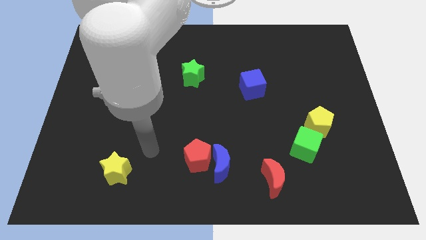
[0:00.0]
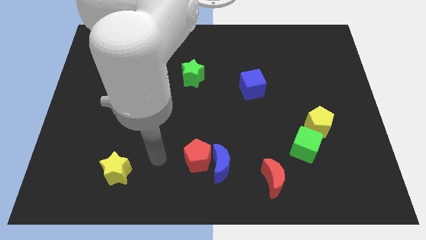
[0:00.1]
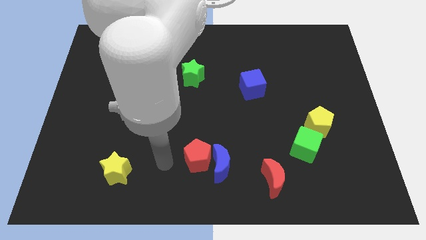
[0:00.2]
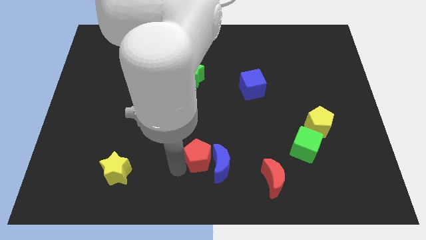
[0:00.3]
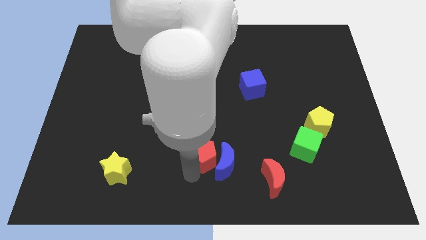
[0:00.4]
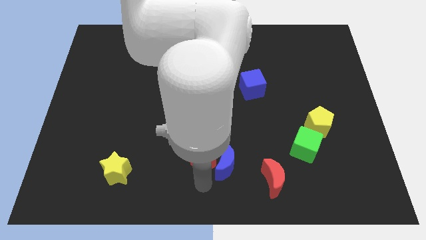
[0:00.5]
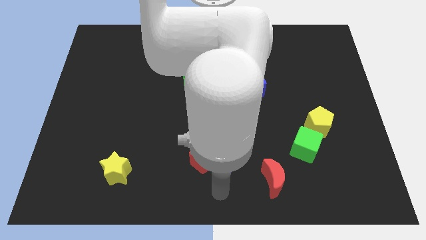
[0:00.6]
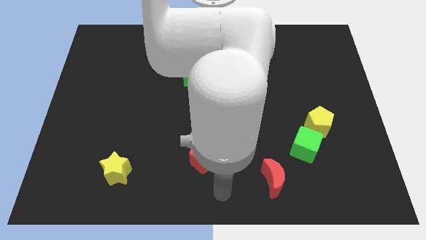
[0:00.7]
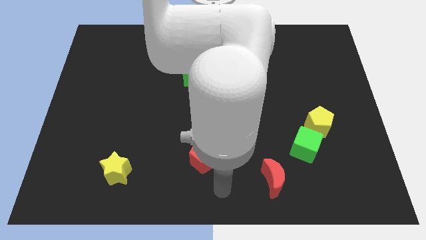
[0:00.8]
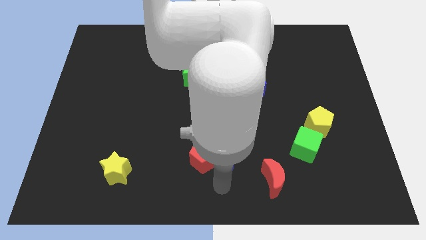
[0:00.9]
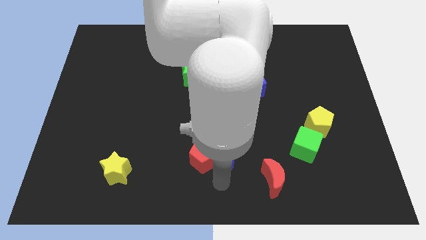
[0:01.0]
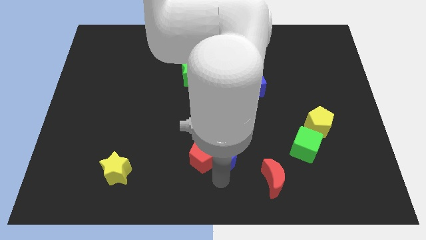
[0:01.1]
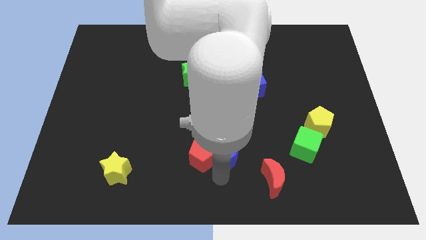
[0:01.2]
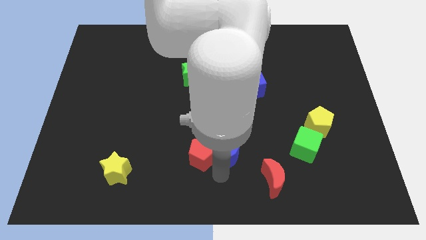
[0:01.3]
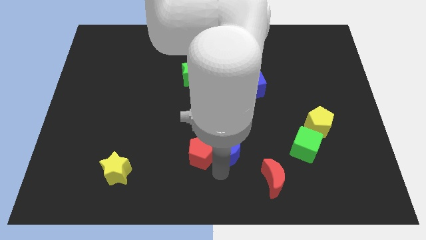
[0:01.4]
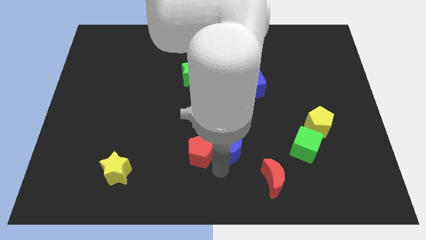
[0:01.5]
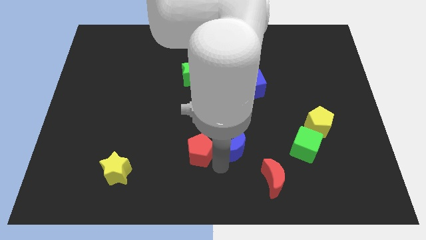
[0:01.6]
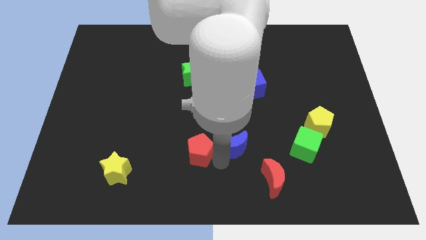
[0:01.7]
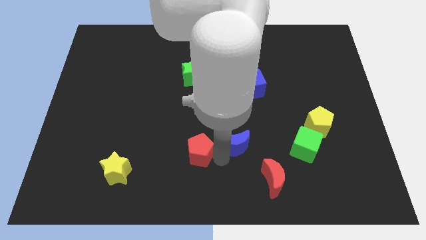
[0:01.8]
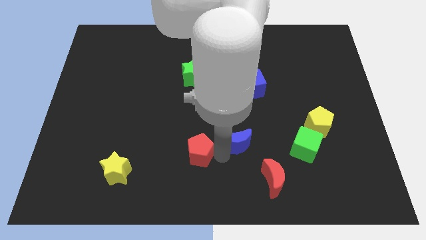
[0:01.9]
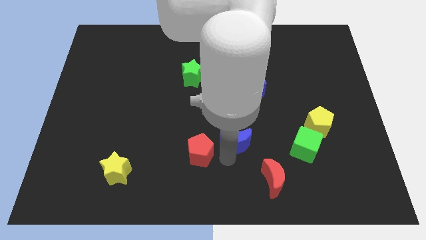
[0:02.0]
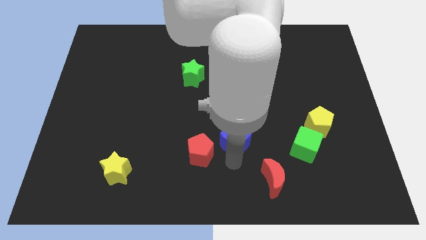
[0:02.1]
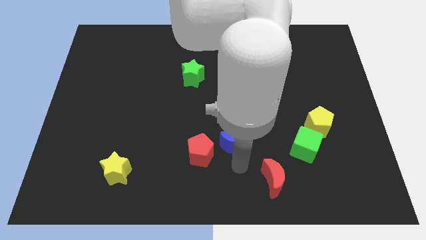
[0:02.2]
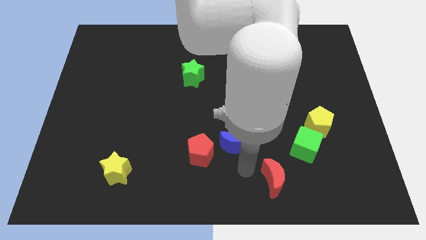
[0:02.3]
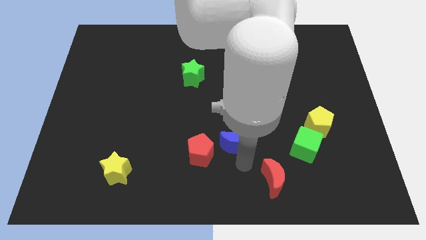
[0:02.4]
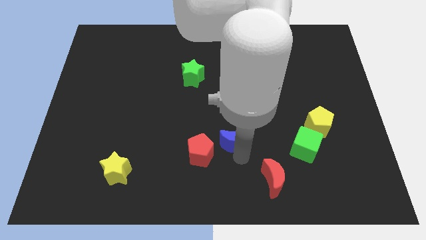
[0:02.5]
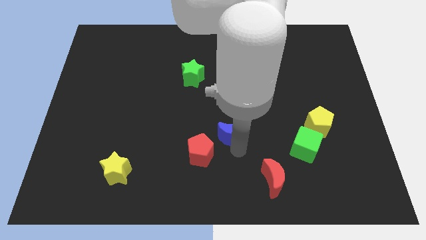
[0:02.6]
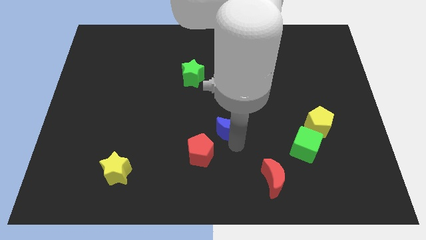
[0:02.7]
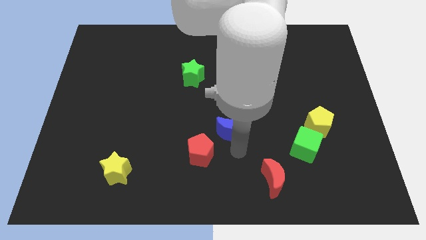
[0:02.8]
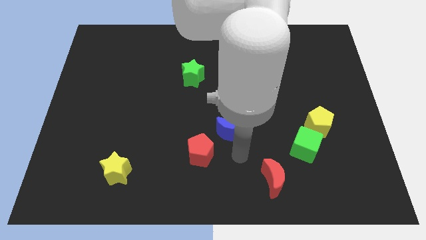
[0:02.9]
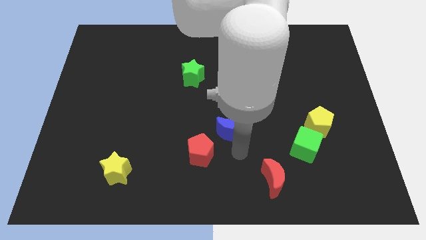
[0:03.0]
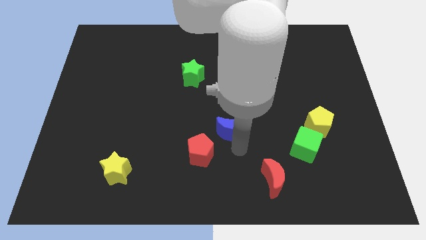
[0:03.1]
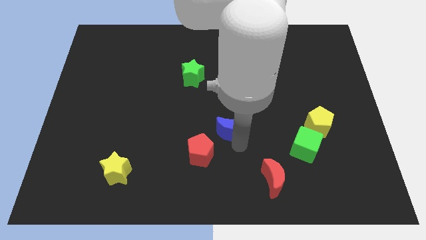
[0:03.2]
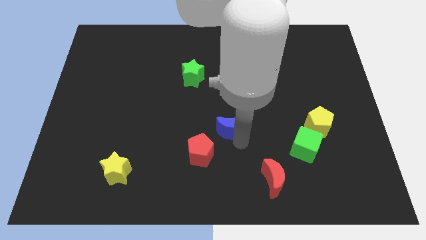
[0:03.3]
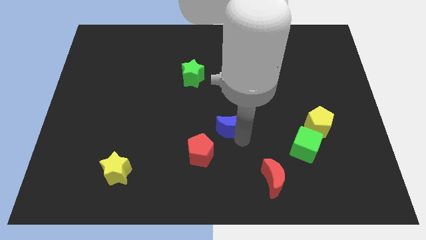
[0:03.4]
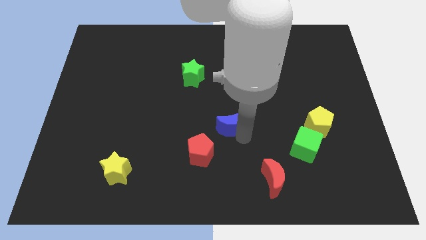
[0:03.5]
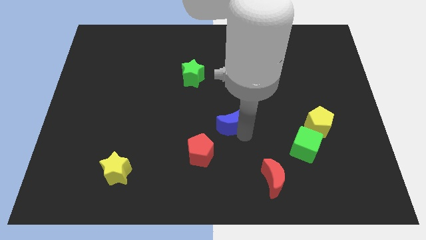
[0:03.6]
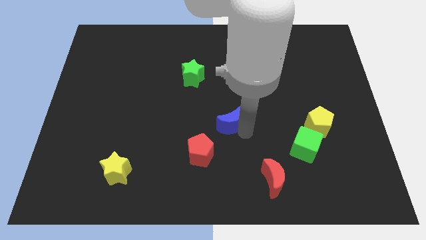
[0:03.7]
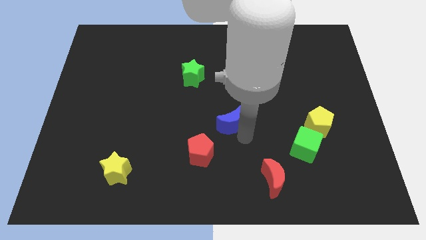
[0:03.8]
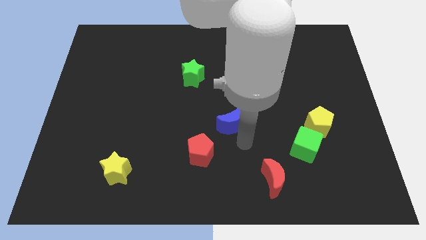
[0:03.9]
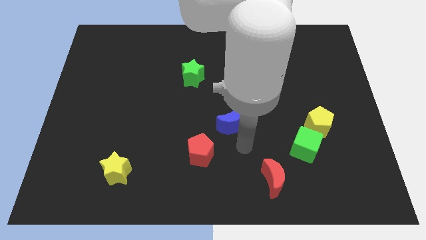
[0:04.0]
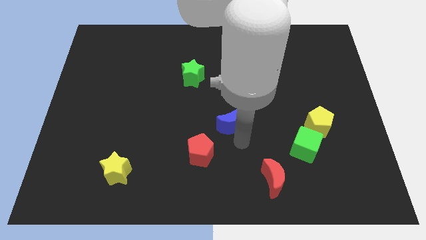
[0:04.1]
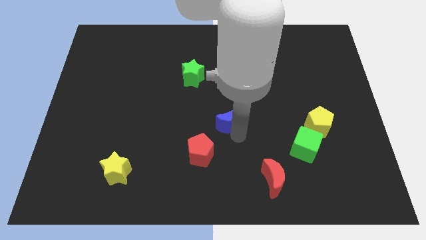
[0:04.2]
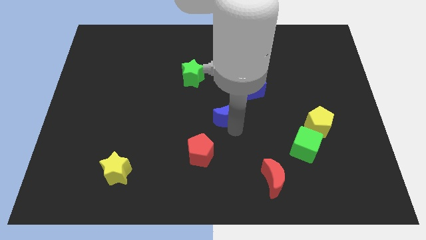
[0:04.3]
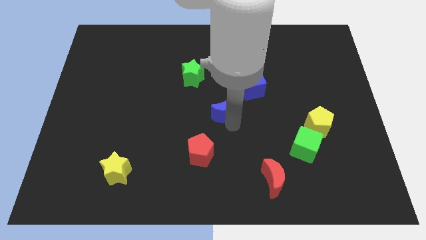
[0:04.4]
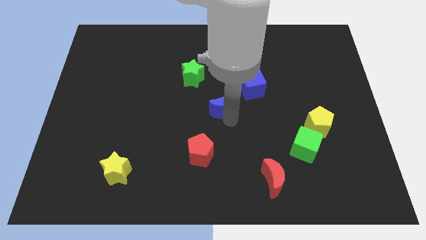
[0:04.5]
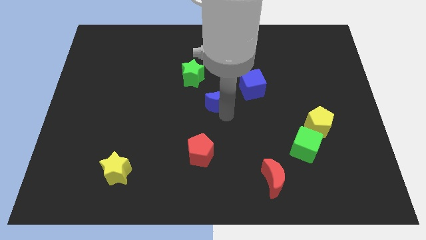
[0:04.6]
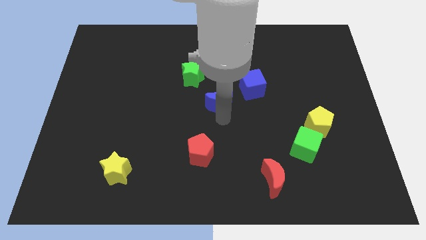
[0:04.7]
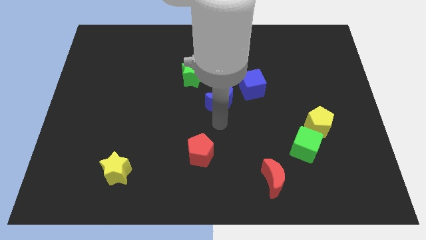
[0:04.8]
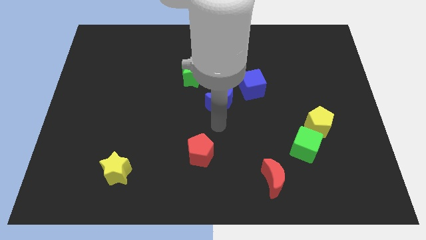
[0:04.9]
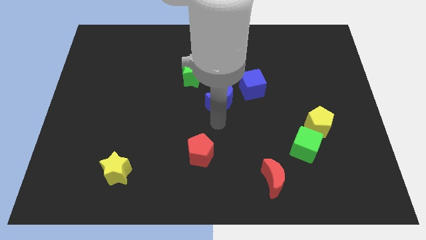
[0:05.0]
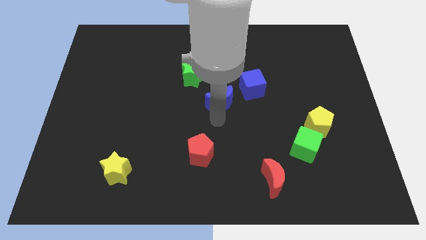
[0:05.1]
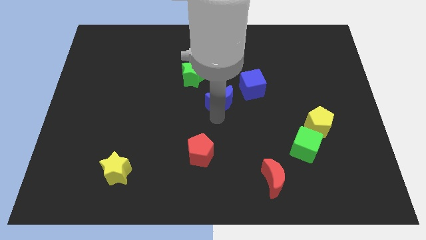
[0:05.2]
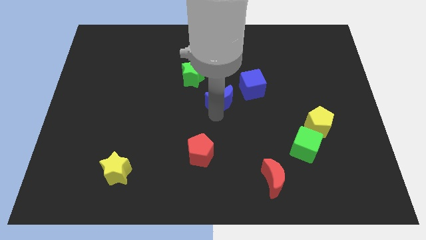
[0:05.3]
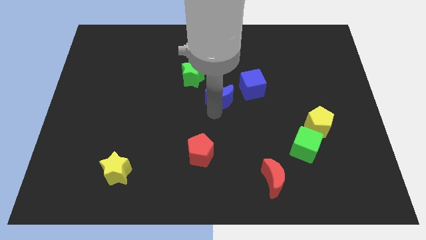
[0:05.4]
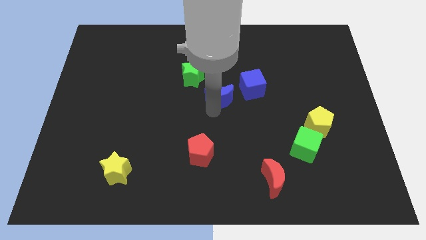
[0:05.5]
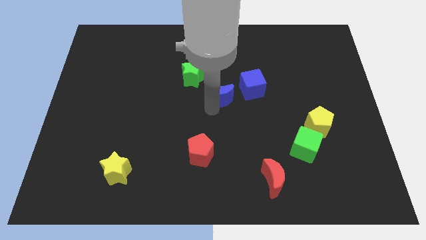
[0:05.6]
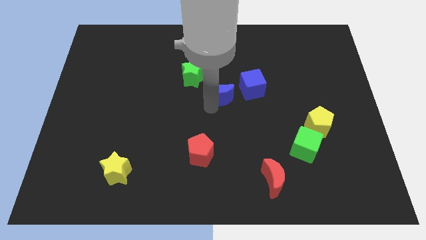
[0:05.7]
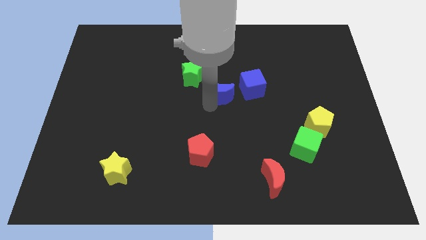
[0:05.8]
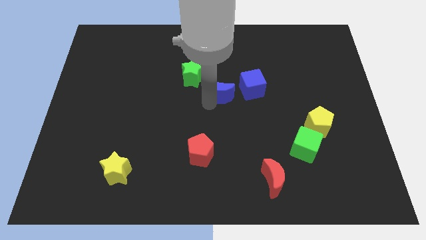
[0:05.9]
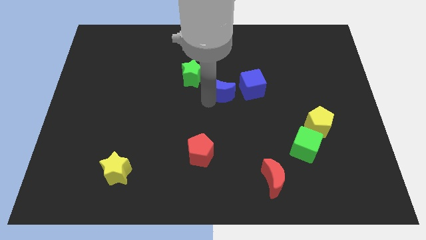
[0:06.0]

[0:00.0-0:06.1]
slide the blue moon up

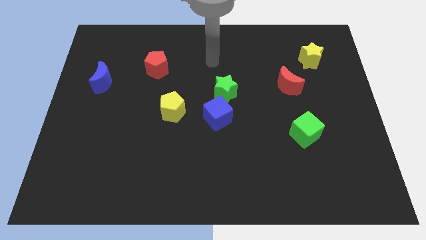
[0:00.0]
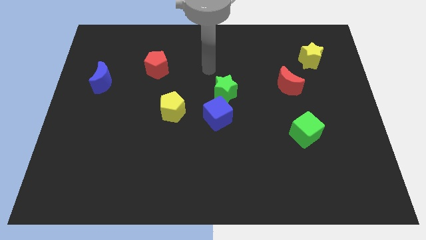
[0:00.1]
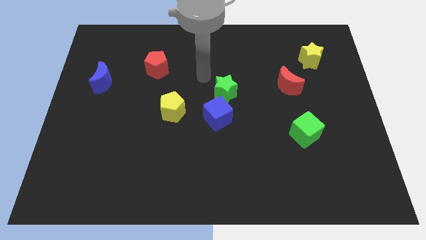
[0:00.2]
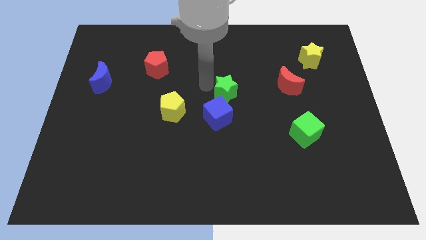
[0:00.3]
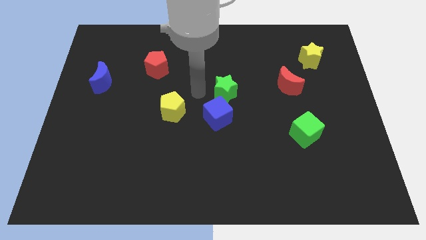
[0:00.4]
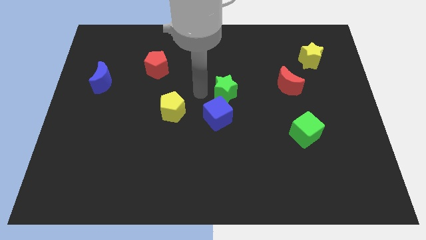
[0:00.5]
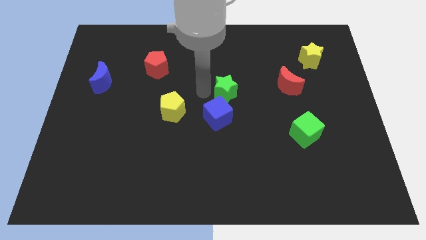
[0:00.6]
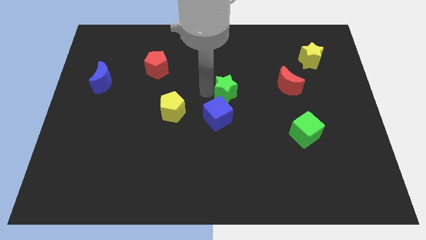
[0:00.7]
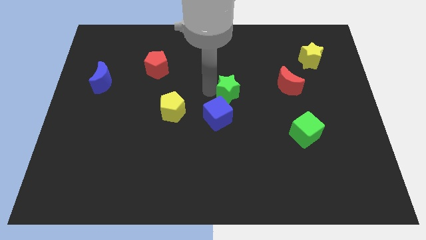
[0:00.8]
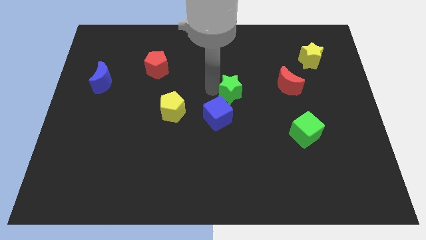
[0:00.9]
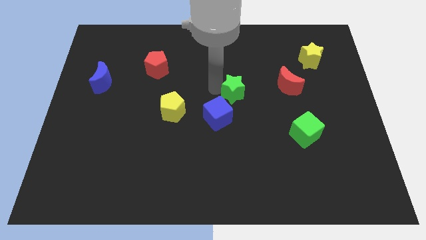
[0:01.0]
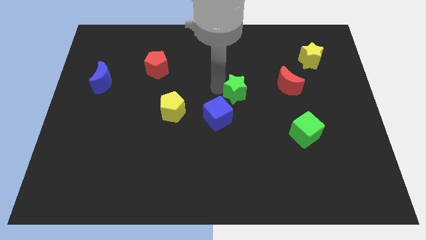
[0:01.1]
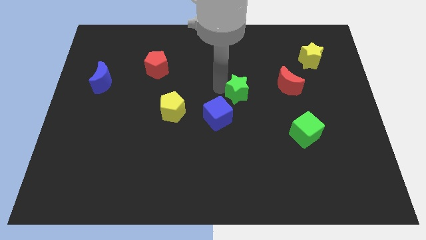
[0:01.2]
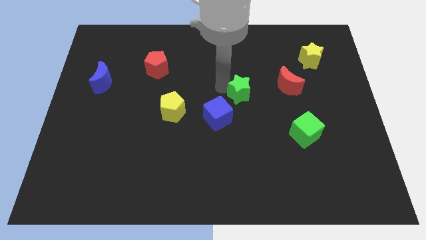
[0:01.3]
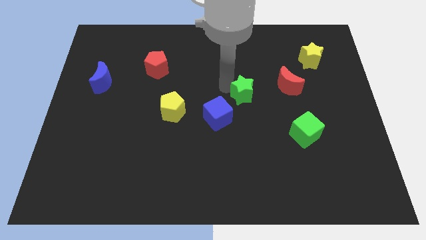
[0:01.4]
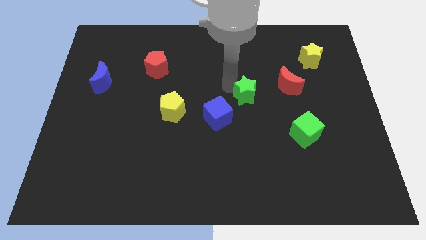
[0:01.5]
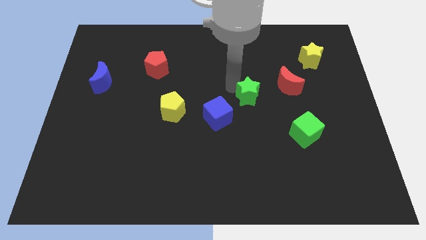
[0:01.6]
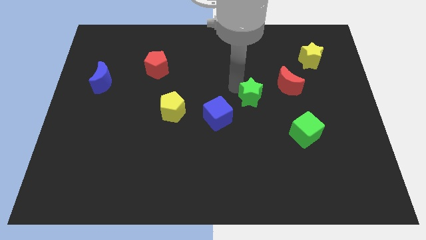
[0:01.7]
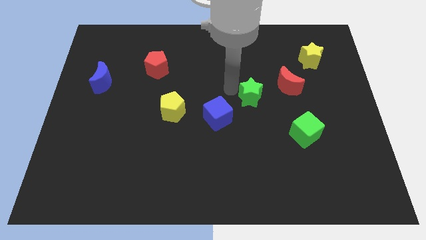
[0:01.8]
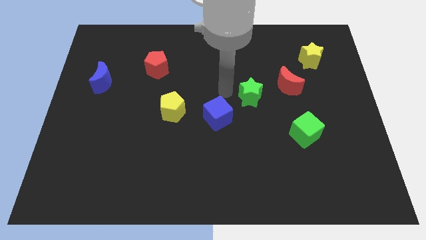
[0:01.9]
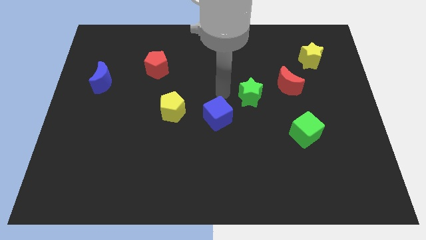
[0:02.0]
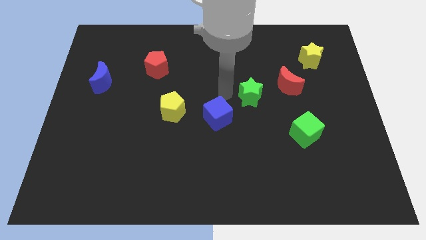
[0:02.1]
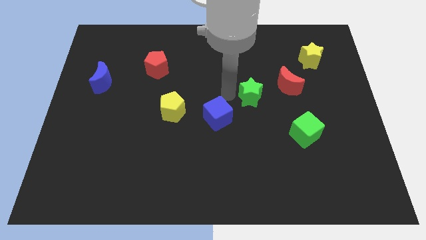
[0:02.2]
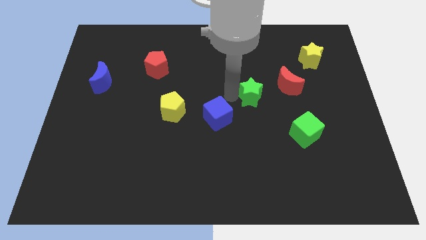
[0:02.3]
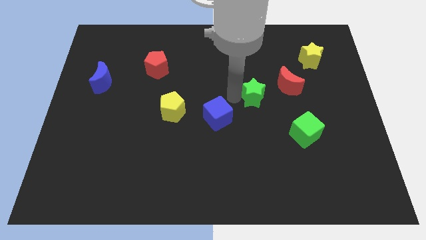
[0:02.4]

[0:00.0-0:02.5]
slightly move the green star right
